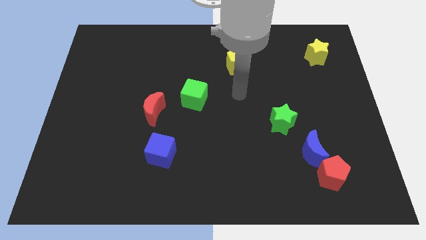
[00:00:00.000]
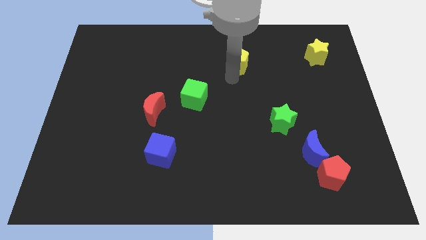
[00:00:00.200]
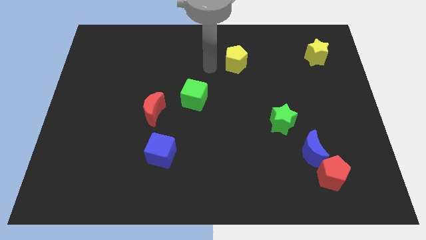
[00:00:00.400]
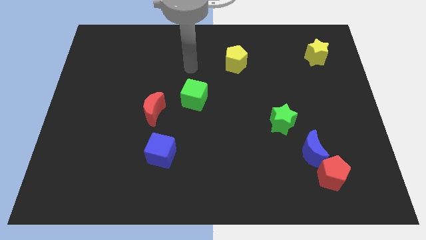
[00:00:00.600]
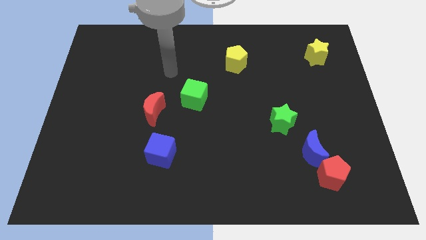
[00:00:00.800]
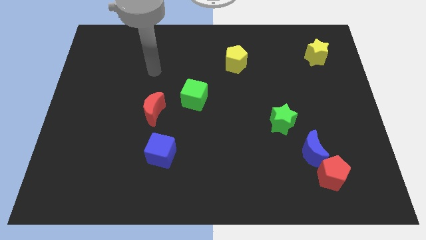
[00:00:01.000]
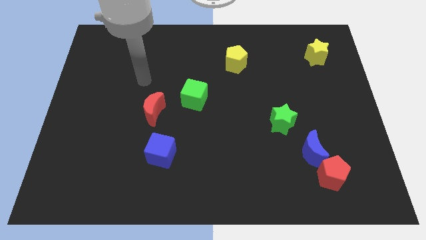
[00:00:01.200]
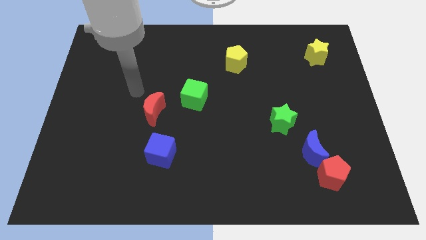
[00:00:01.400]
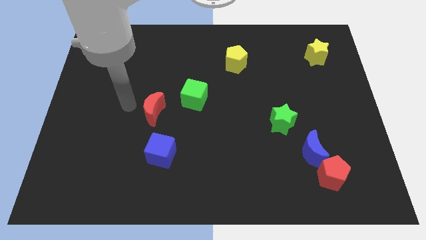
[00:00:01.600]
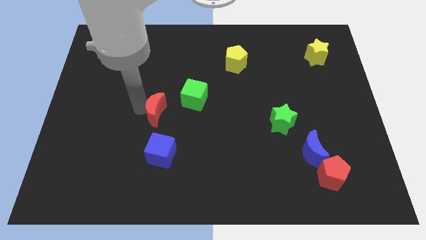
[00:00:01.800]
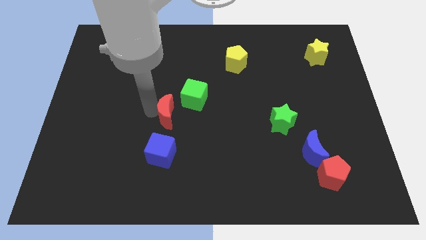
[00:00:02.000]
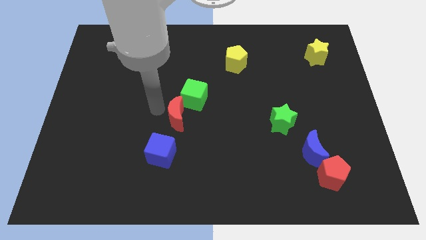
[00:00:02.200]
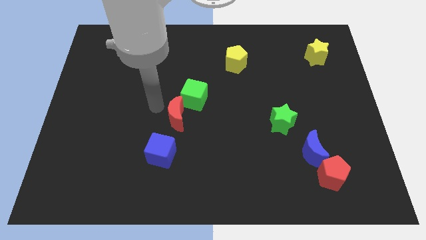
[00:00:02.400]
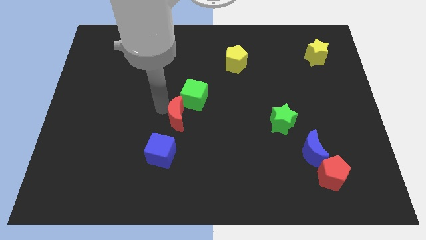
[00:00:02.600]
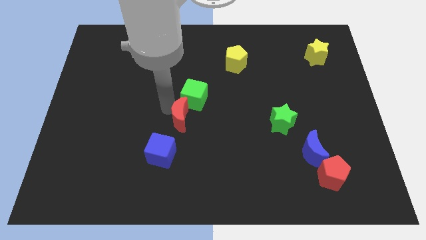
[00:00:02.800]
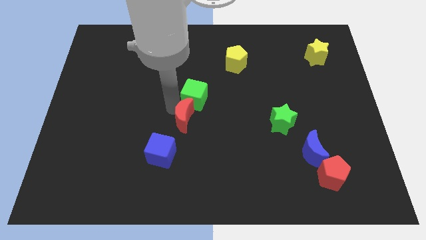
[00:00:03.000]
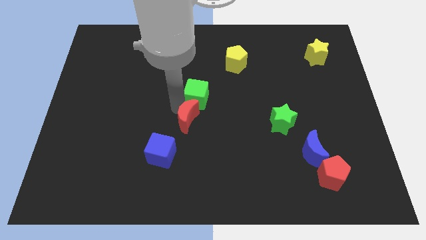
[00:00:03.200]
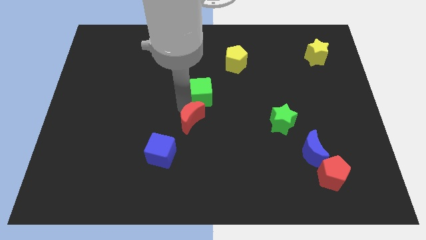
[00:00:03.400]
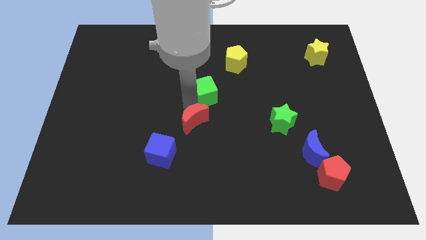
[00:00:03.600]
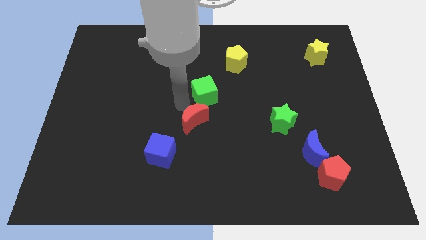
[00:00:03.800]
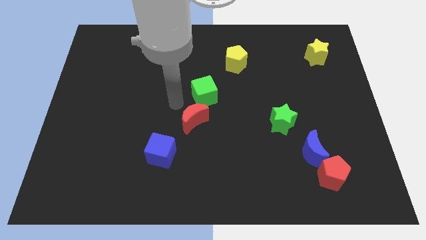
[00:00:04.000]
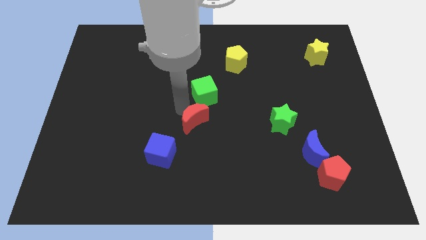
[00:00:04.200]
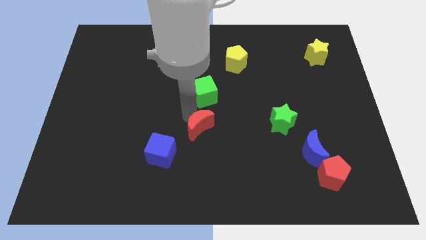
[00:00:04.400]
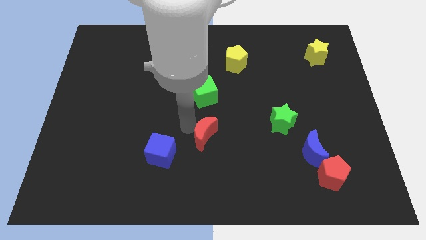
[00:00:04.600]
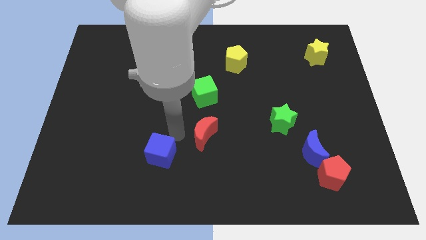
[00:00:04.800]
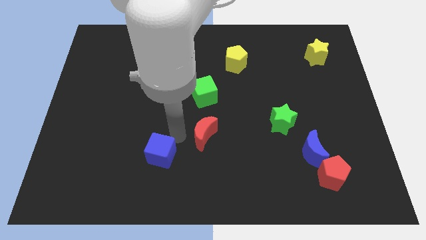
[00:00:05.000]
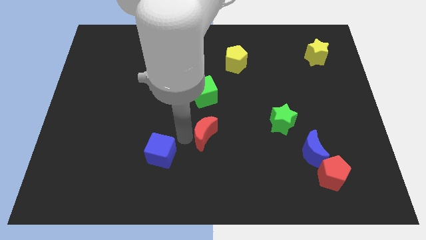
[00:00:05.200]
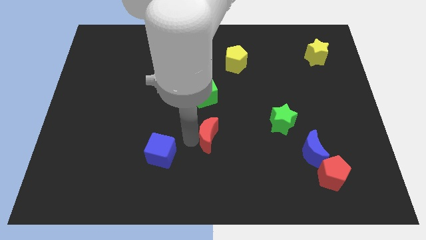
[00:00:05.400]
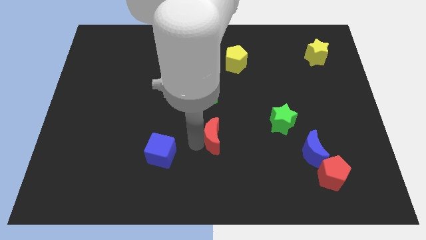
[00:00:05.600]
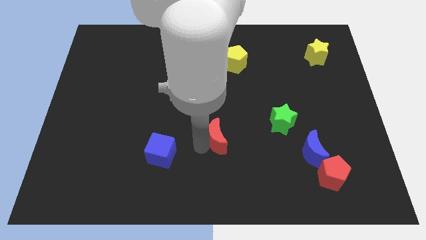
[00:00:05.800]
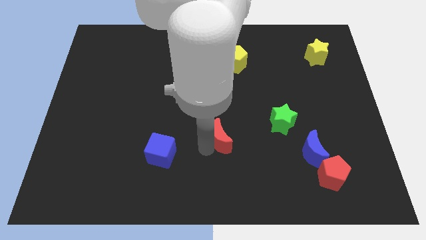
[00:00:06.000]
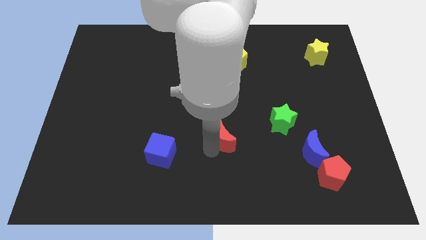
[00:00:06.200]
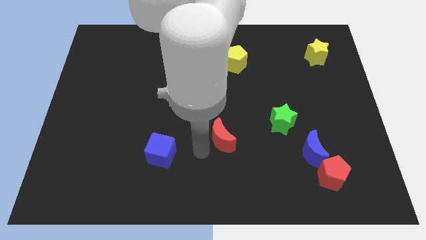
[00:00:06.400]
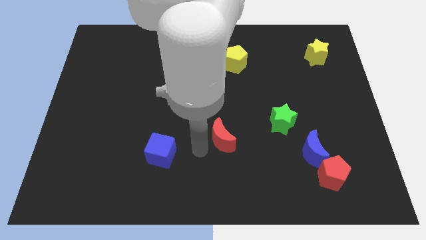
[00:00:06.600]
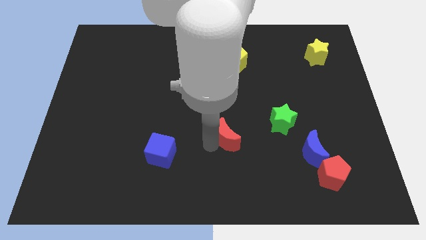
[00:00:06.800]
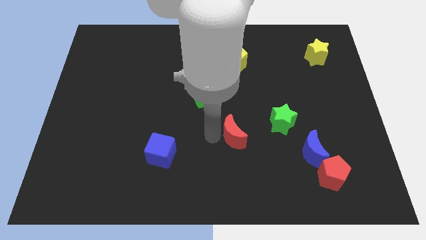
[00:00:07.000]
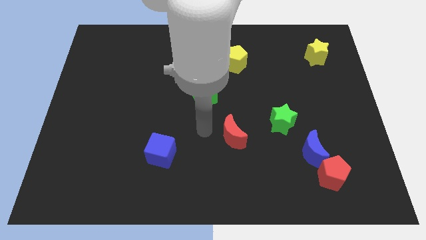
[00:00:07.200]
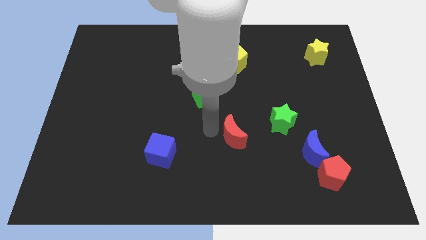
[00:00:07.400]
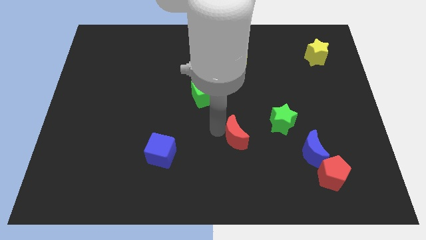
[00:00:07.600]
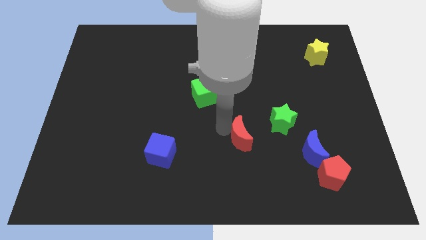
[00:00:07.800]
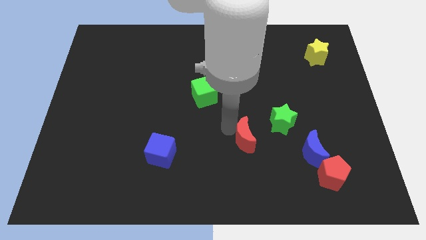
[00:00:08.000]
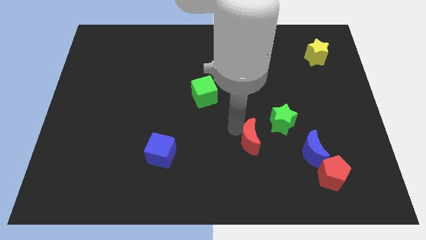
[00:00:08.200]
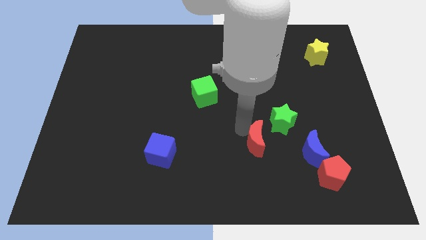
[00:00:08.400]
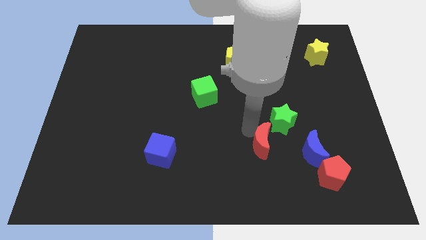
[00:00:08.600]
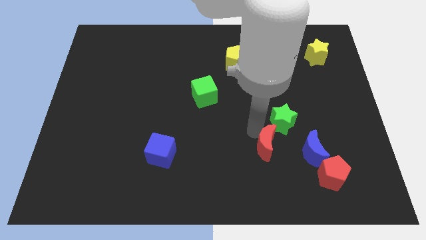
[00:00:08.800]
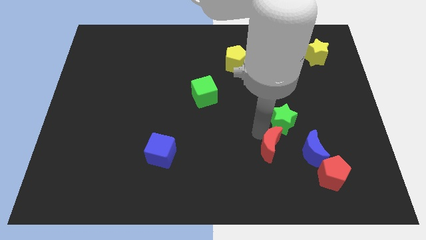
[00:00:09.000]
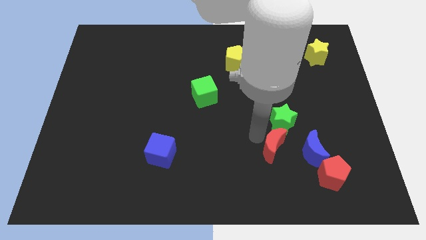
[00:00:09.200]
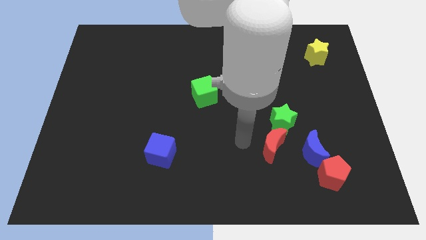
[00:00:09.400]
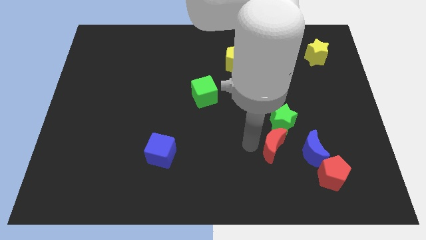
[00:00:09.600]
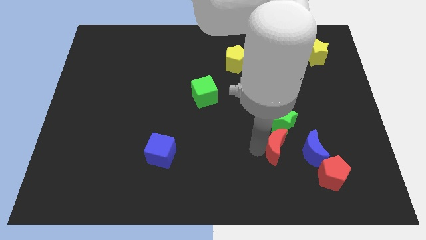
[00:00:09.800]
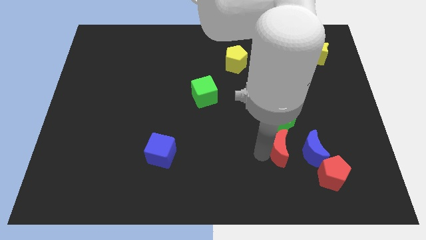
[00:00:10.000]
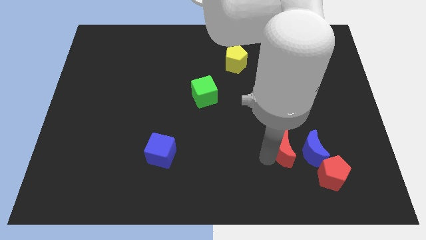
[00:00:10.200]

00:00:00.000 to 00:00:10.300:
slide the red moon close to the blue moon

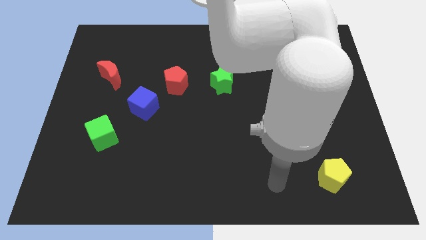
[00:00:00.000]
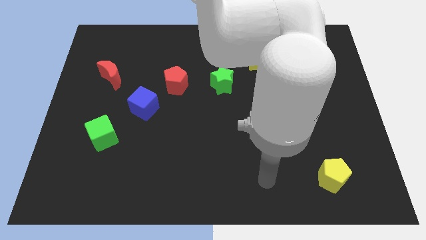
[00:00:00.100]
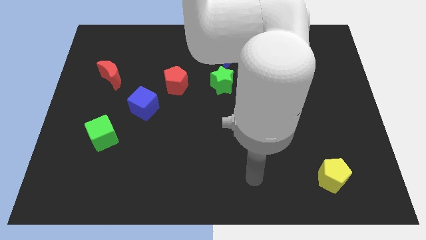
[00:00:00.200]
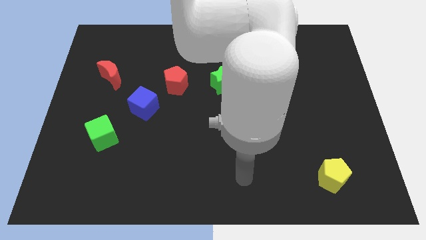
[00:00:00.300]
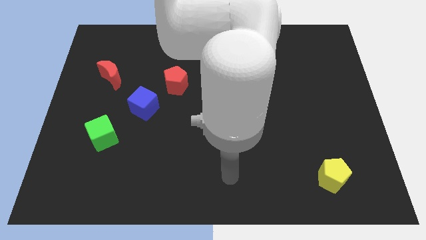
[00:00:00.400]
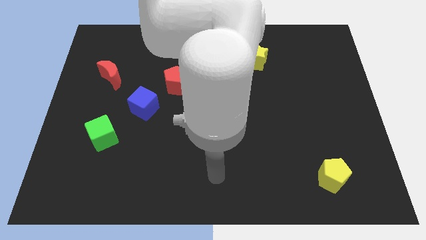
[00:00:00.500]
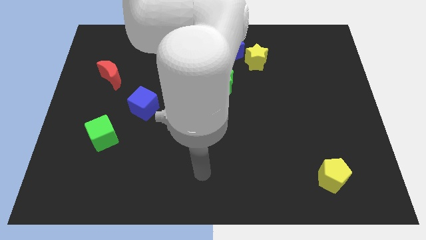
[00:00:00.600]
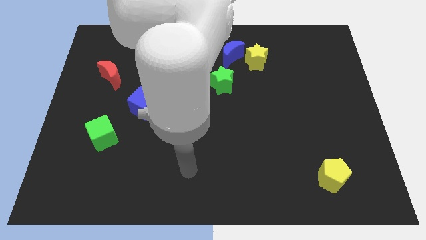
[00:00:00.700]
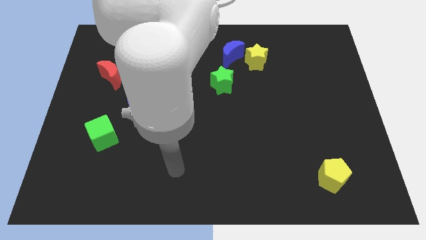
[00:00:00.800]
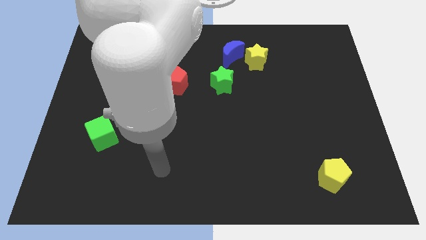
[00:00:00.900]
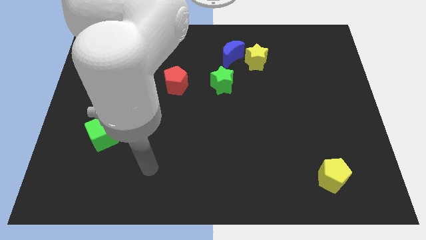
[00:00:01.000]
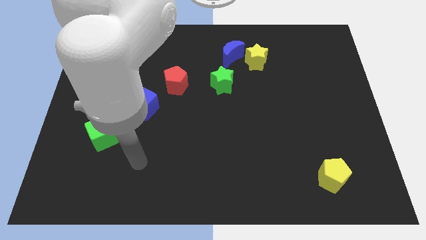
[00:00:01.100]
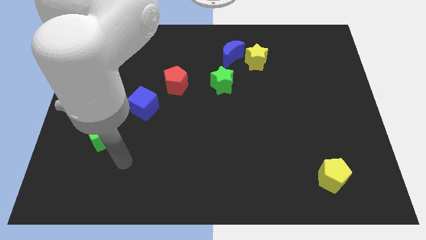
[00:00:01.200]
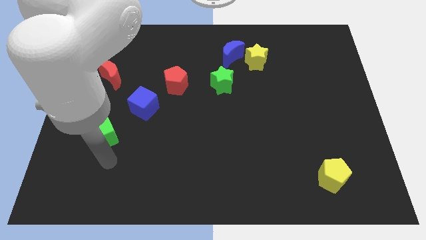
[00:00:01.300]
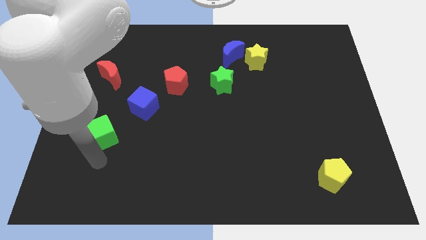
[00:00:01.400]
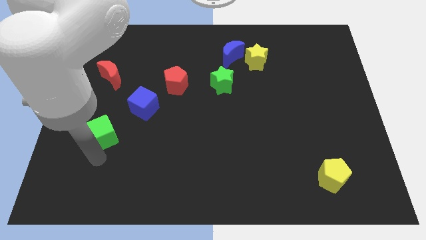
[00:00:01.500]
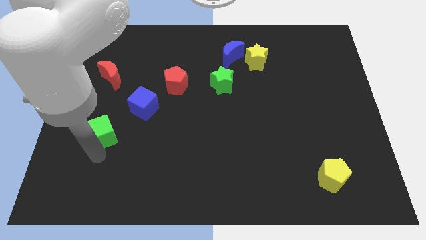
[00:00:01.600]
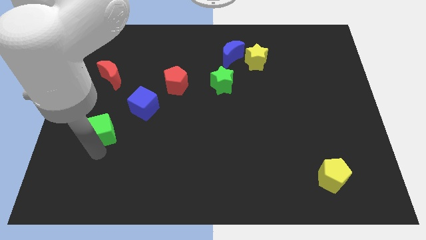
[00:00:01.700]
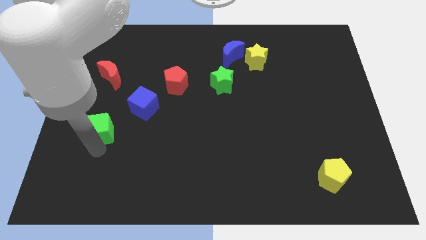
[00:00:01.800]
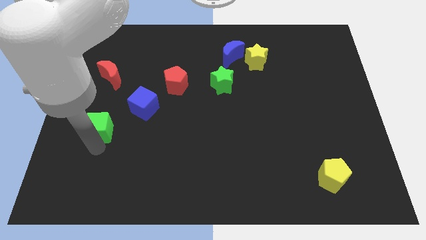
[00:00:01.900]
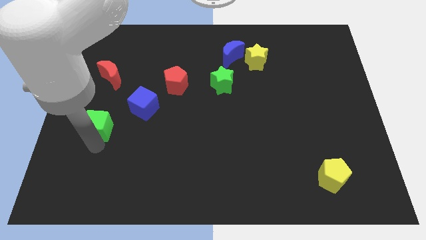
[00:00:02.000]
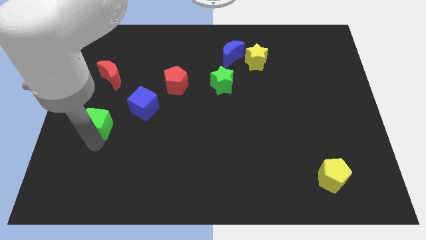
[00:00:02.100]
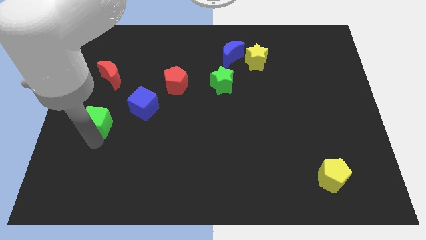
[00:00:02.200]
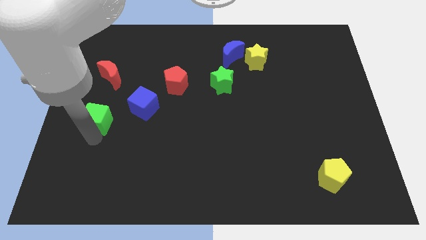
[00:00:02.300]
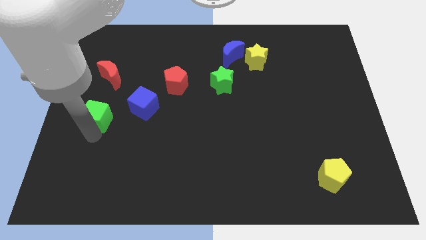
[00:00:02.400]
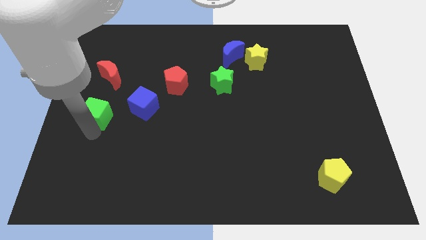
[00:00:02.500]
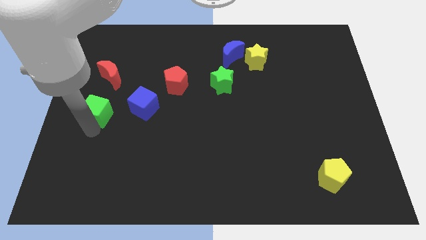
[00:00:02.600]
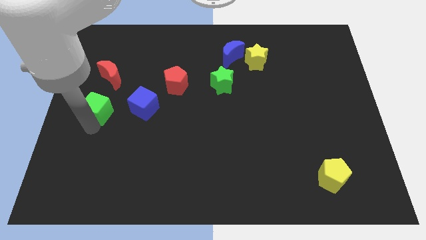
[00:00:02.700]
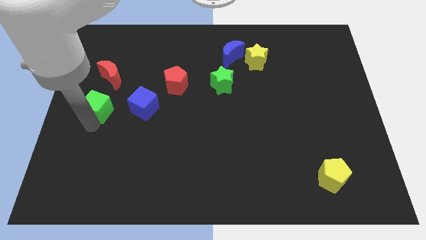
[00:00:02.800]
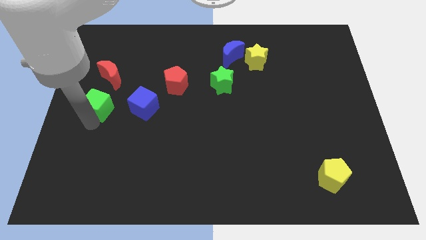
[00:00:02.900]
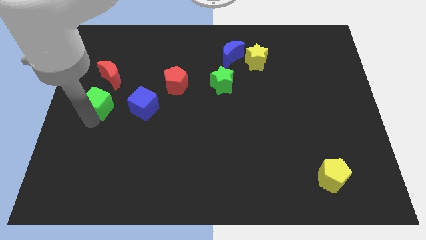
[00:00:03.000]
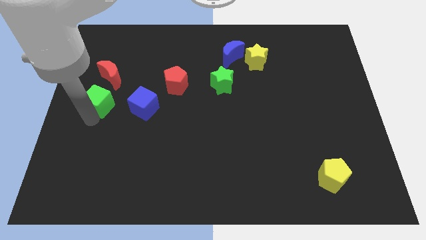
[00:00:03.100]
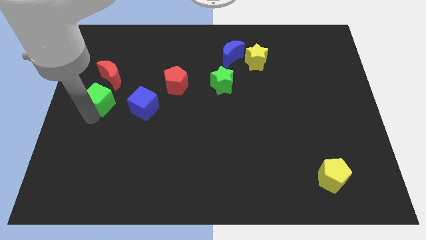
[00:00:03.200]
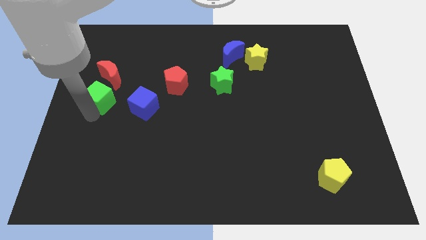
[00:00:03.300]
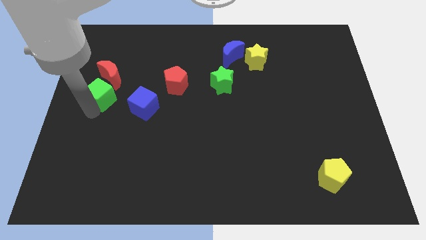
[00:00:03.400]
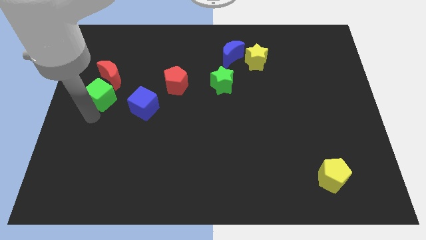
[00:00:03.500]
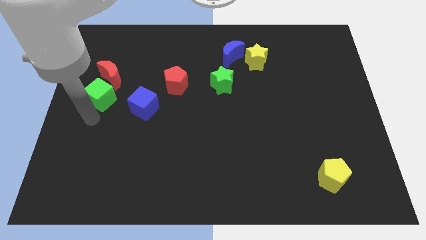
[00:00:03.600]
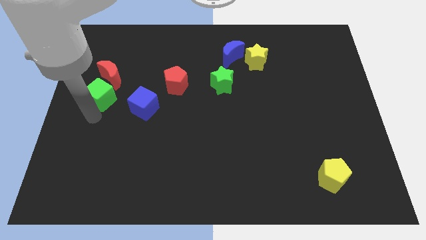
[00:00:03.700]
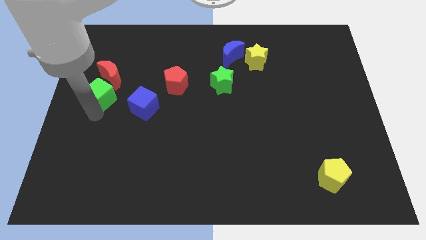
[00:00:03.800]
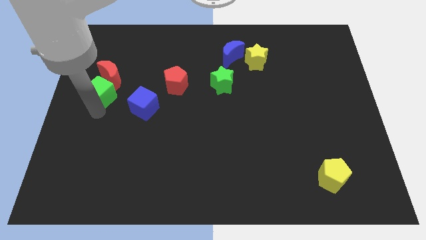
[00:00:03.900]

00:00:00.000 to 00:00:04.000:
push the green cube next to the red moon
